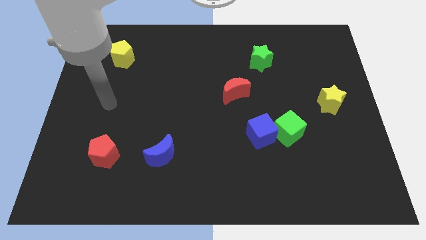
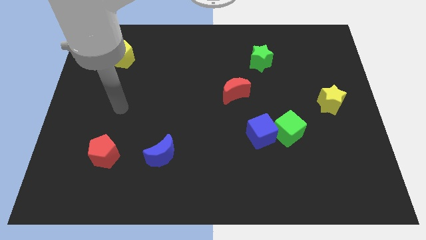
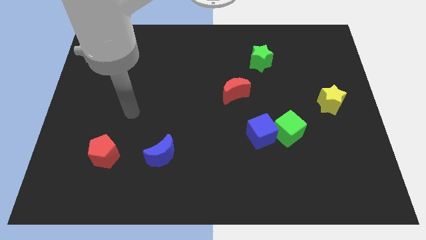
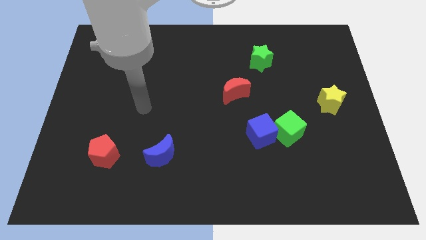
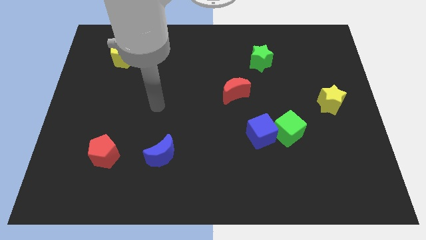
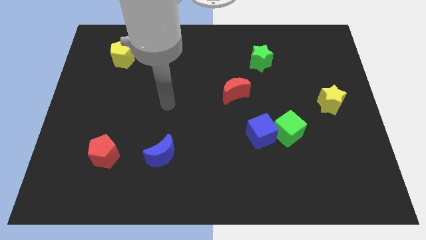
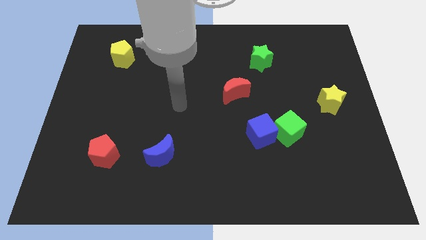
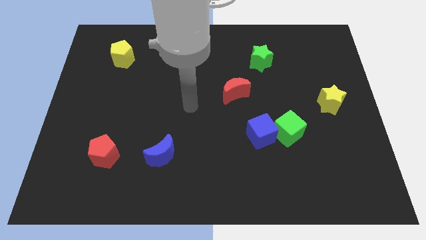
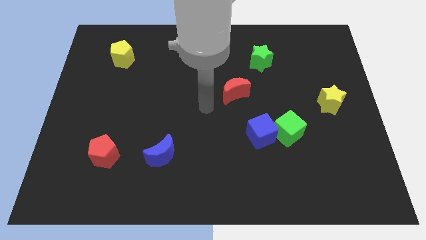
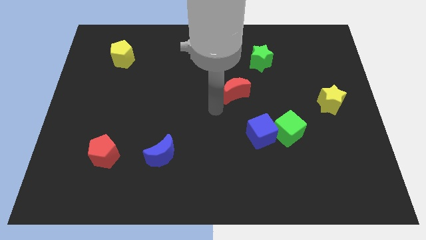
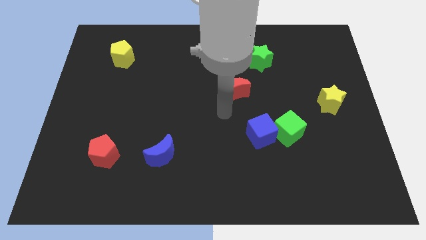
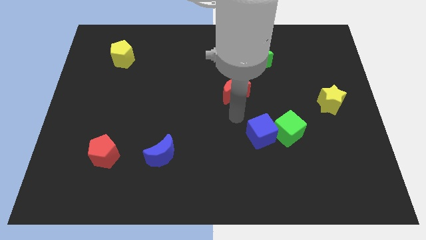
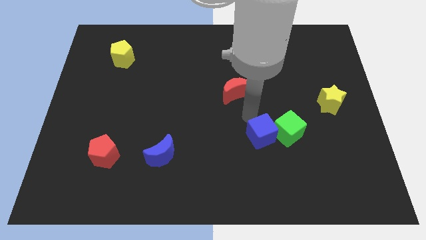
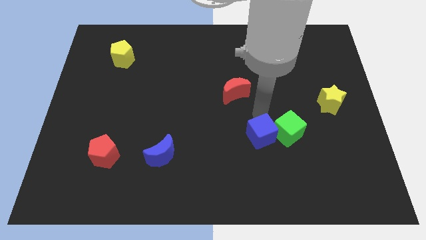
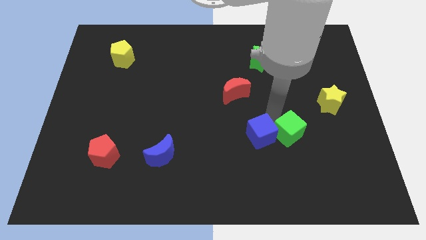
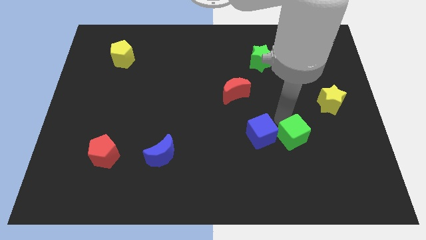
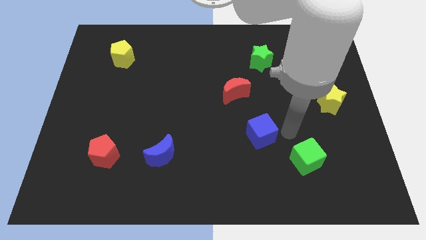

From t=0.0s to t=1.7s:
separate the blue cube from the green cube

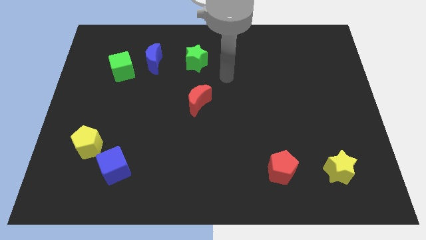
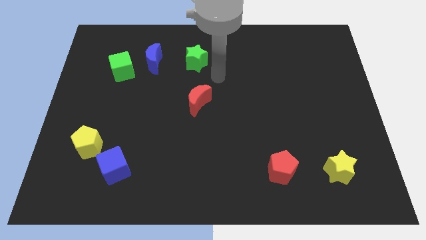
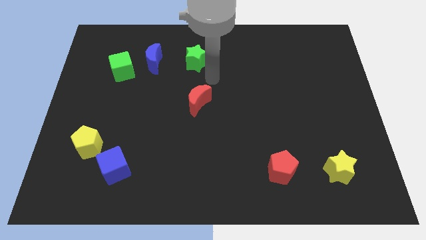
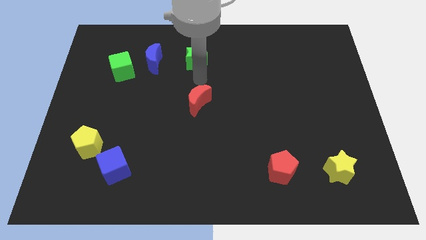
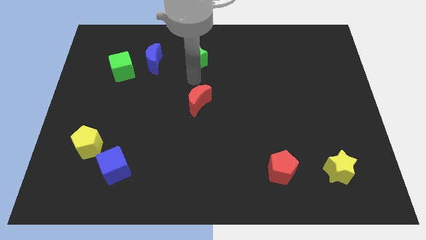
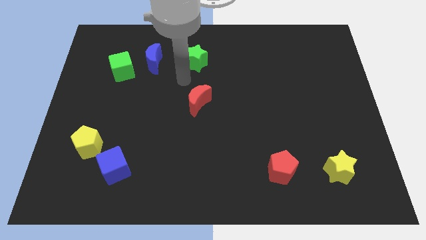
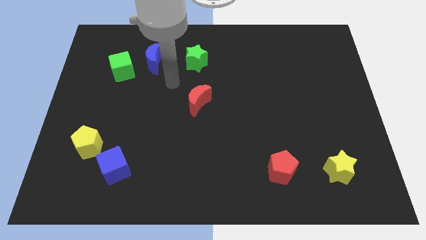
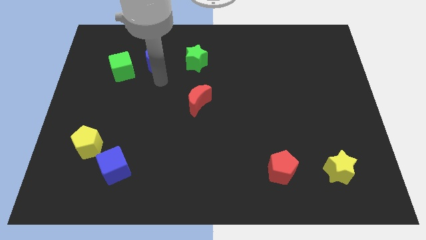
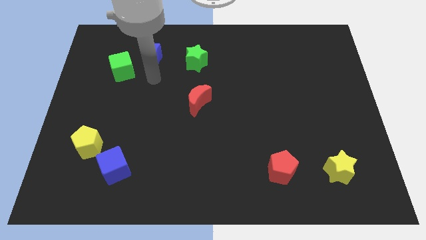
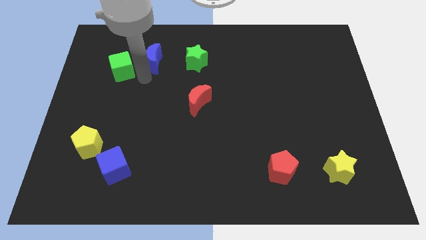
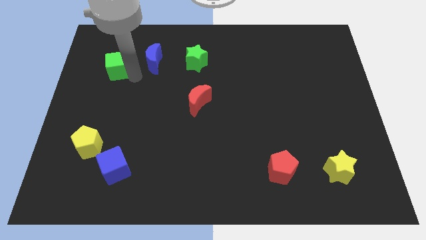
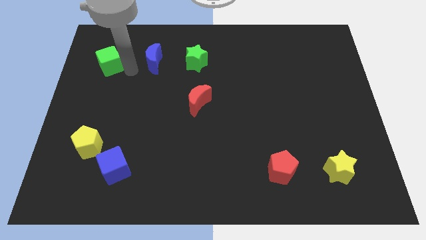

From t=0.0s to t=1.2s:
move the blue moon away from the green cube

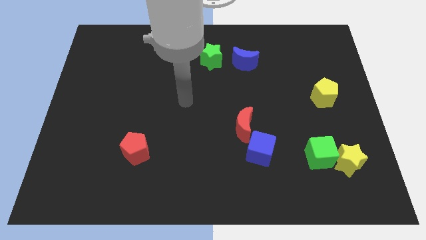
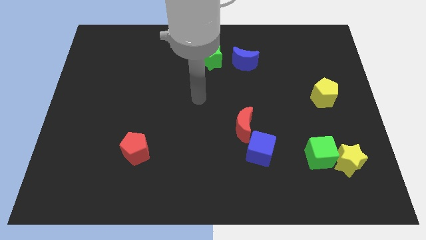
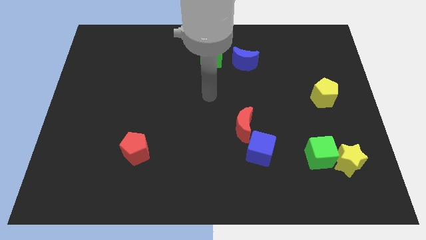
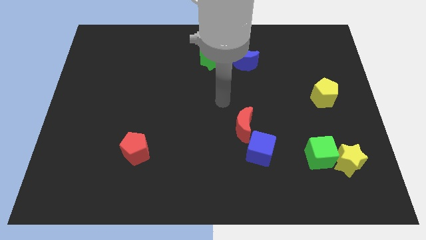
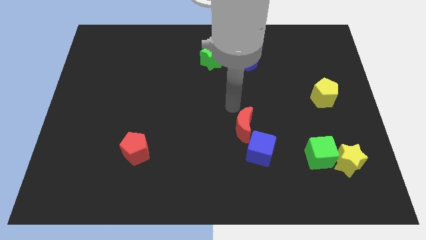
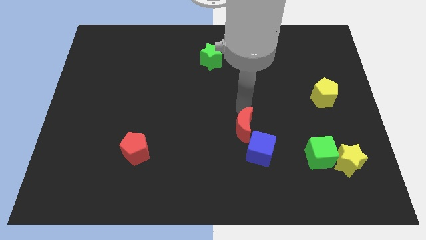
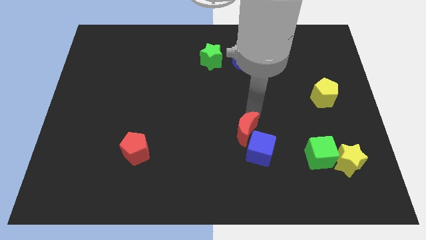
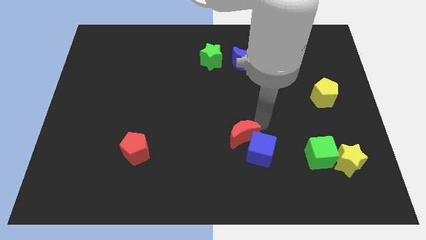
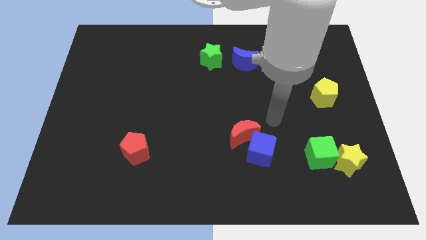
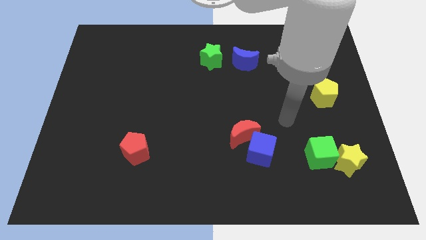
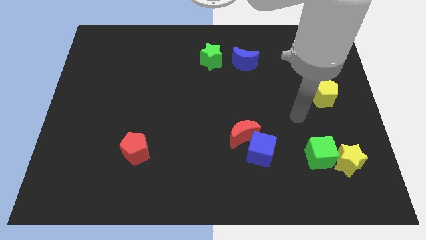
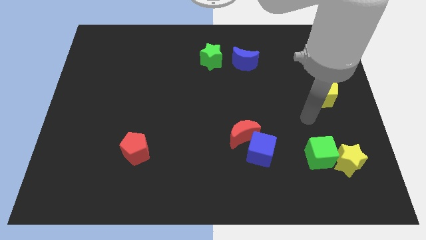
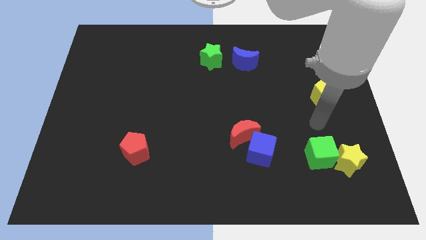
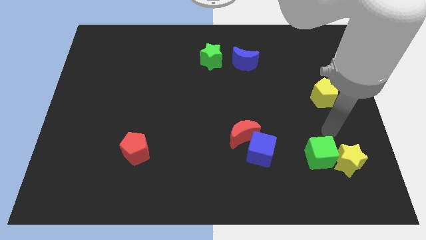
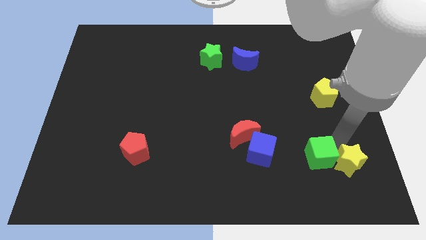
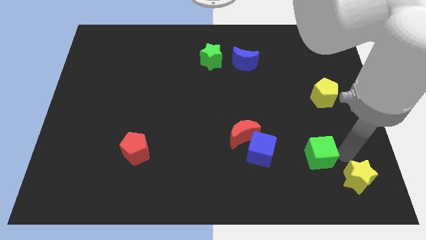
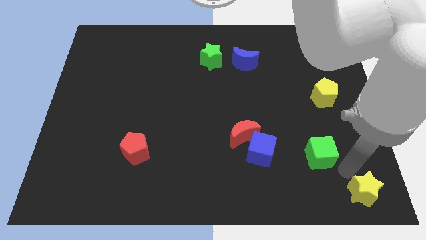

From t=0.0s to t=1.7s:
pull the green cube apart from the yellow star

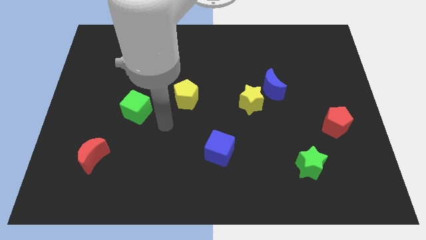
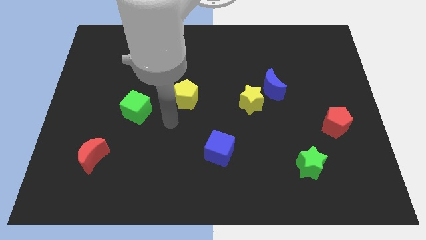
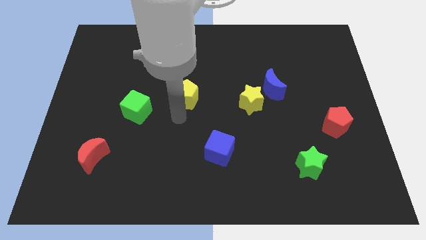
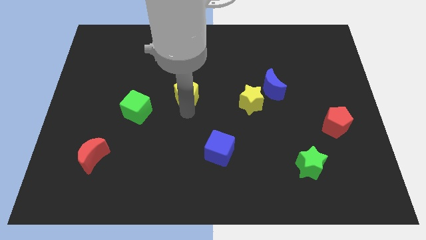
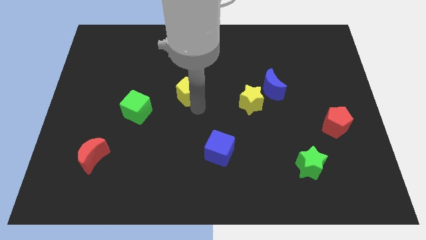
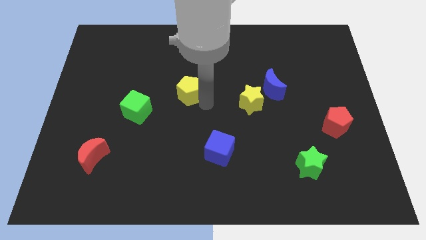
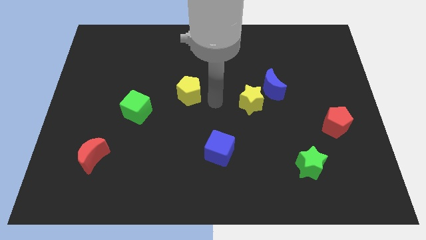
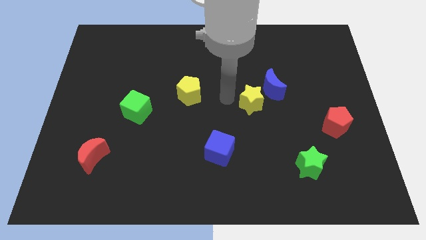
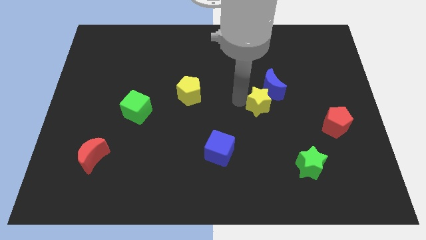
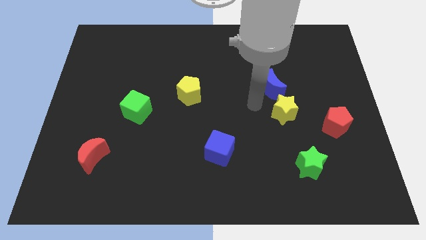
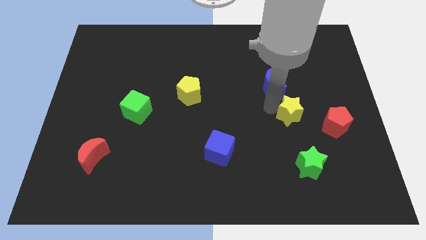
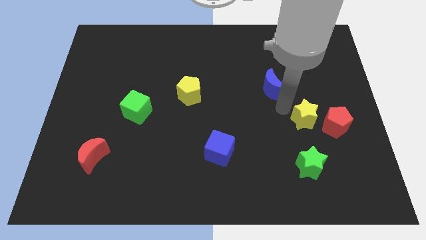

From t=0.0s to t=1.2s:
move the blue moon away from the yellow star

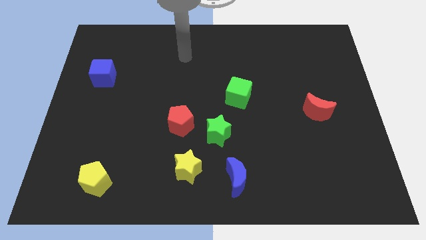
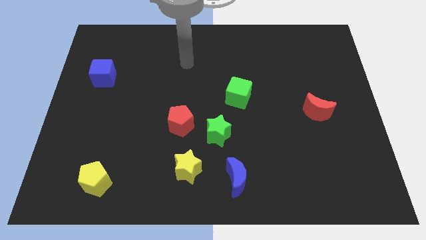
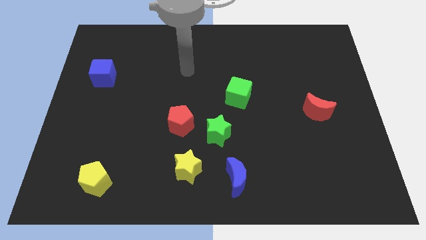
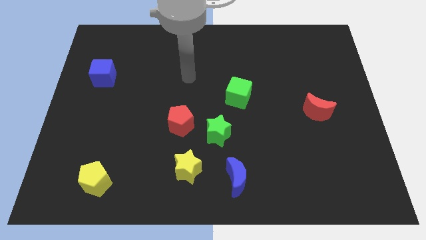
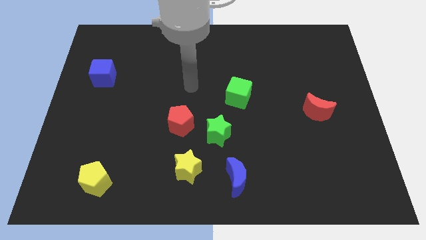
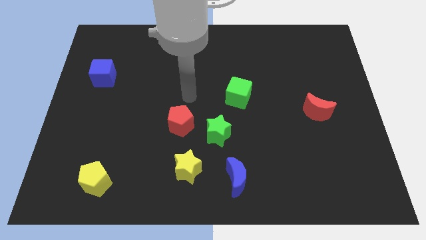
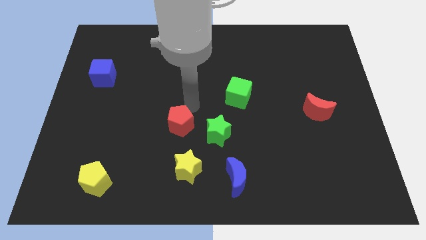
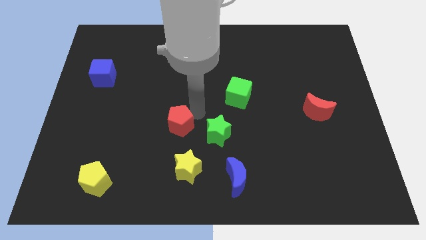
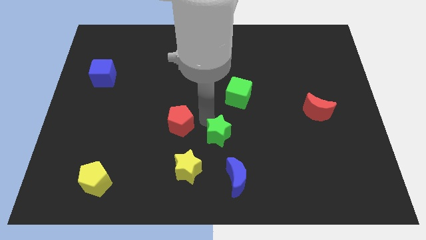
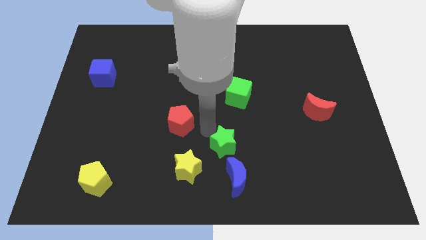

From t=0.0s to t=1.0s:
move the red pentagon away from the green star

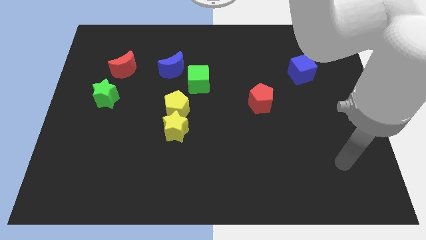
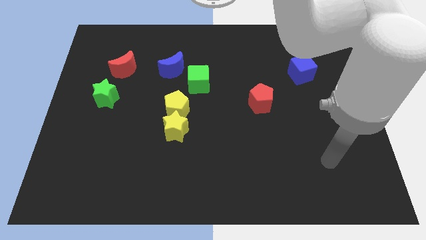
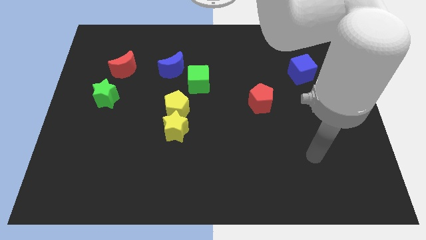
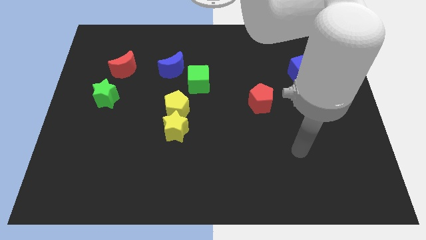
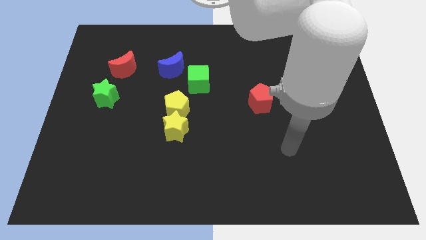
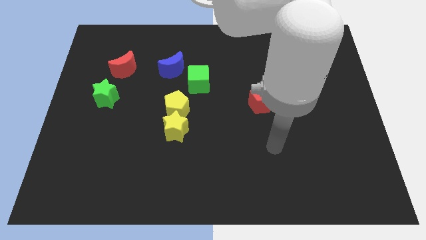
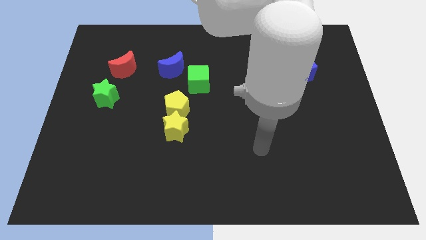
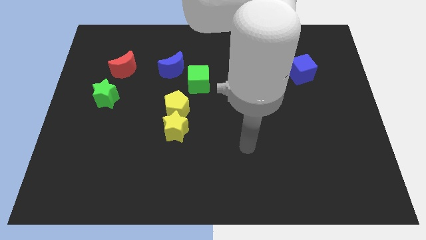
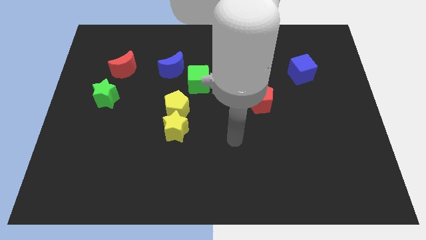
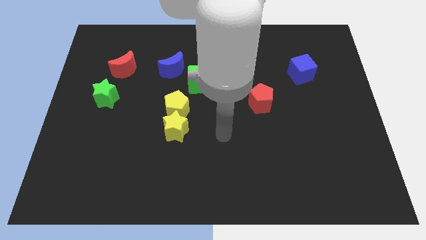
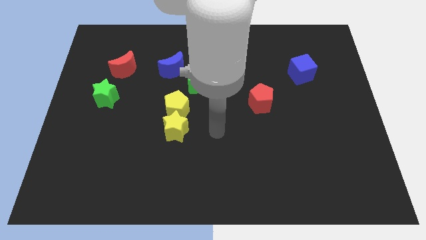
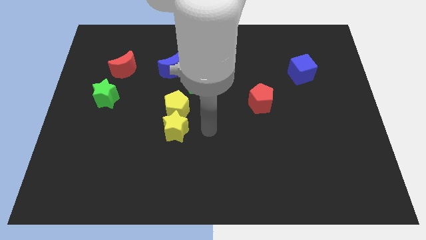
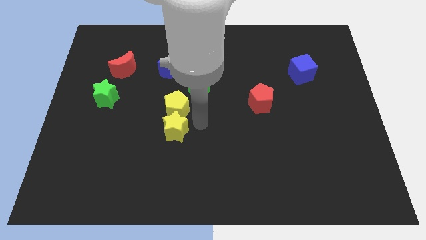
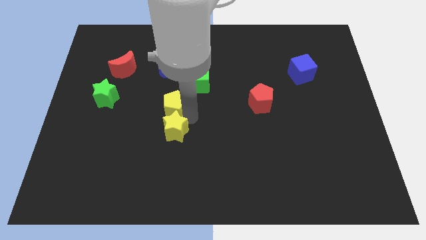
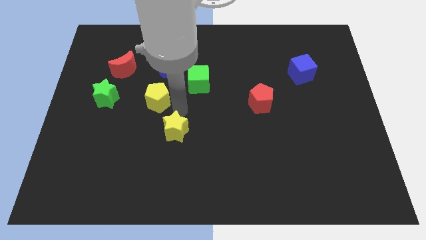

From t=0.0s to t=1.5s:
separate the yellow star from the yellow pentagon

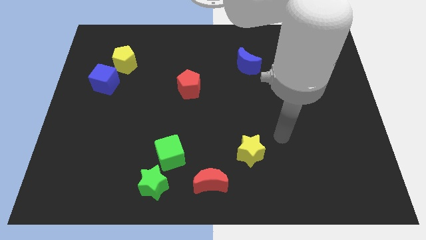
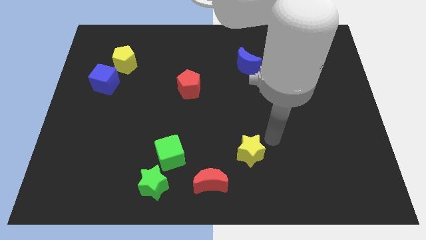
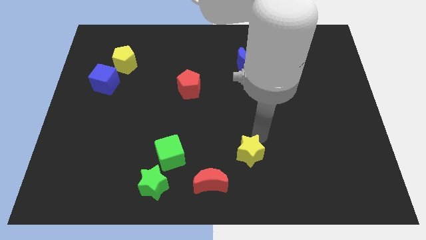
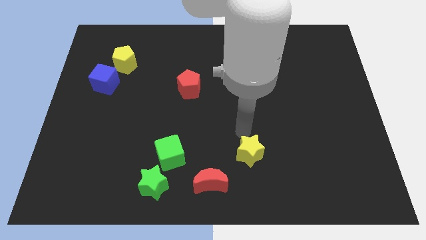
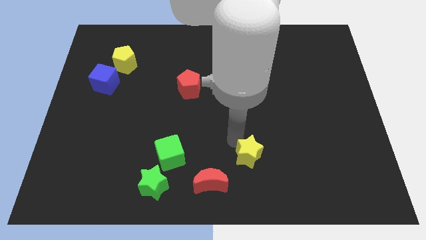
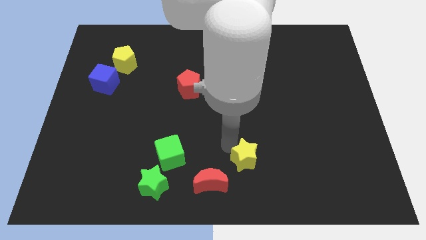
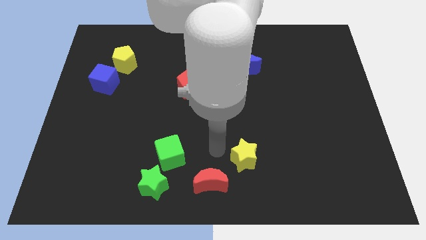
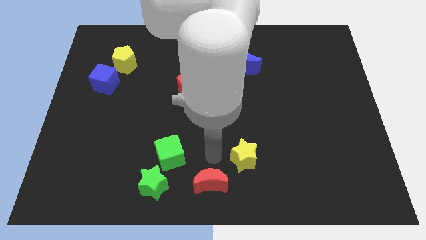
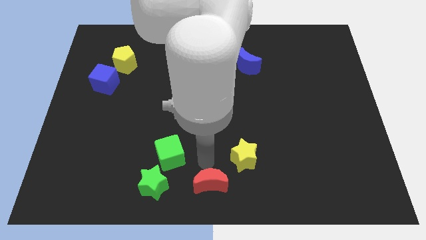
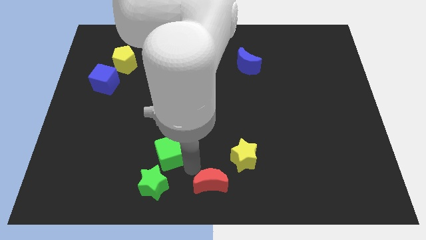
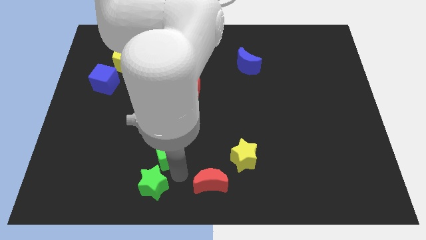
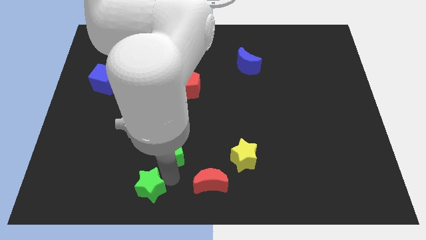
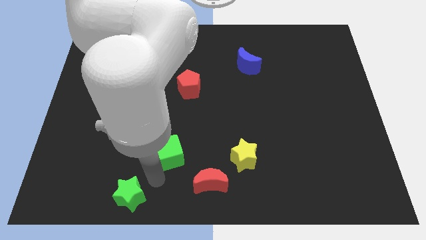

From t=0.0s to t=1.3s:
separate the green cube from the green star
